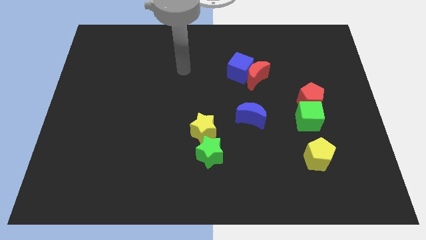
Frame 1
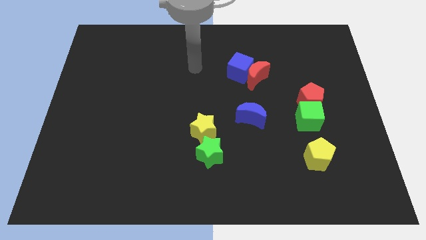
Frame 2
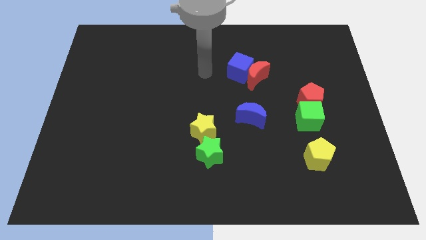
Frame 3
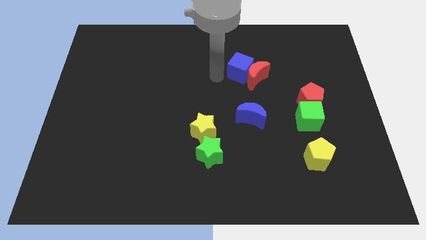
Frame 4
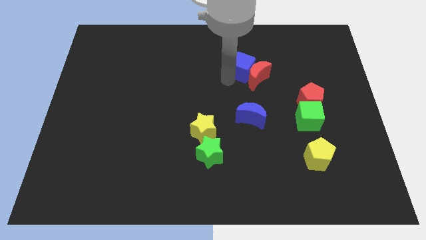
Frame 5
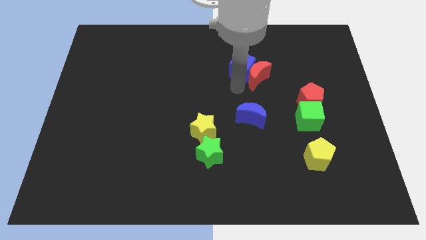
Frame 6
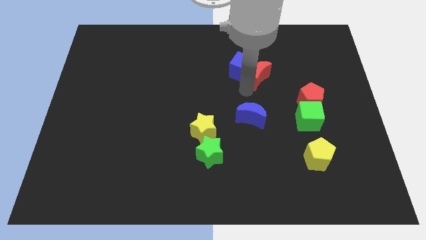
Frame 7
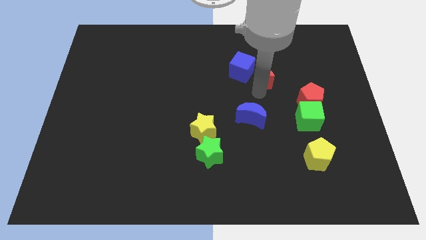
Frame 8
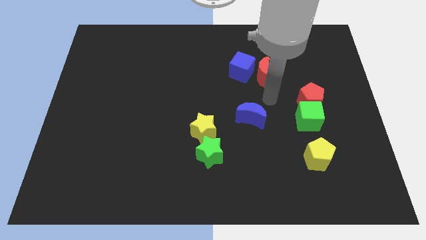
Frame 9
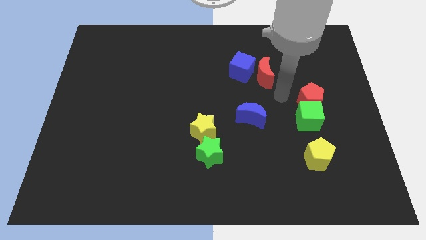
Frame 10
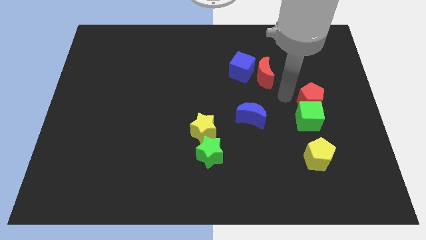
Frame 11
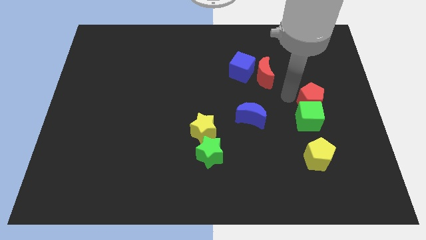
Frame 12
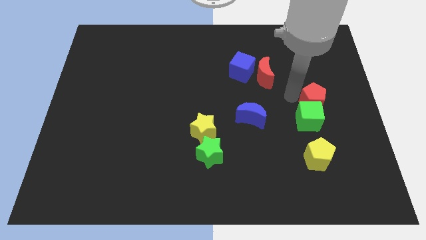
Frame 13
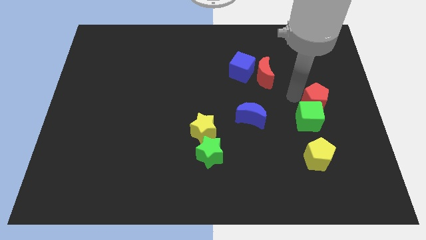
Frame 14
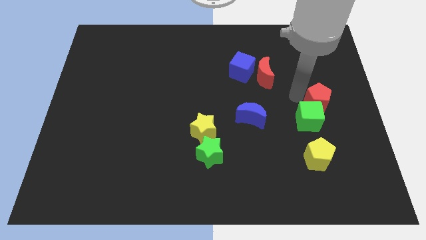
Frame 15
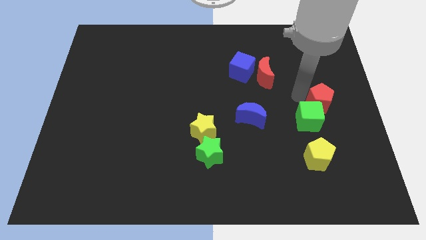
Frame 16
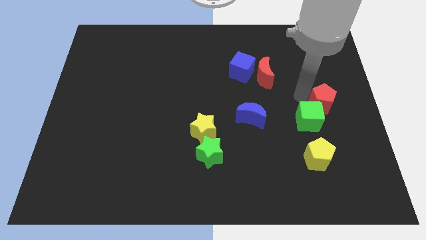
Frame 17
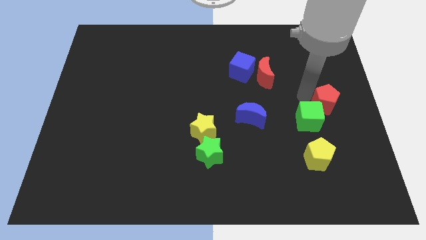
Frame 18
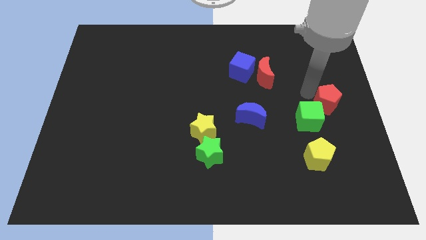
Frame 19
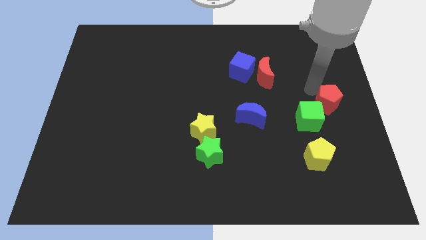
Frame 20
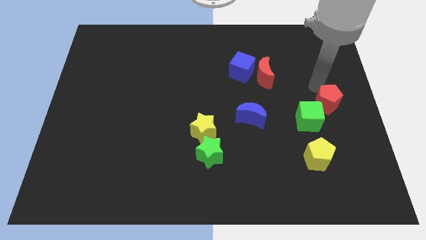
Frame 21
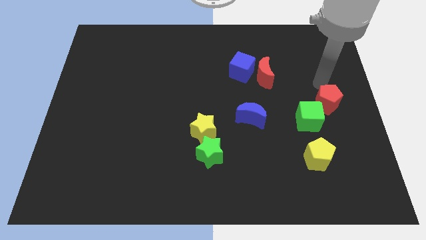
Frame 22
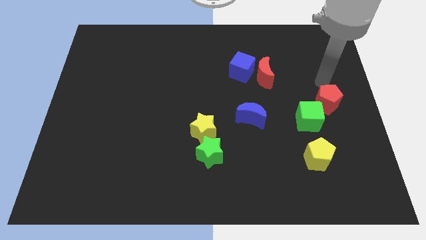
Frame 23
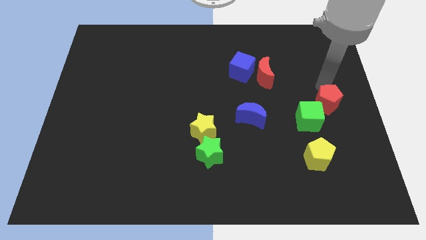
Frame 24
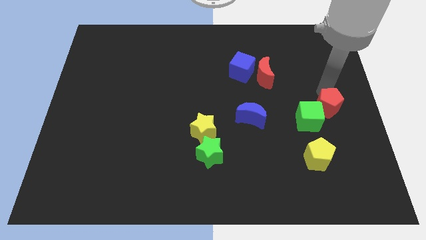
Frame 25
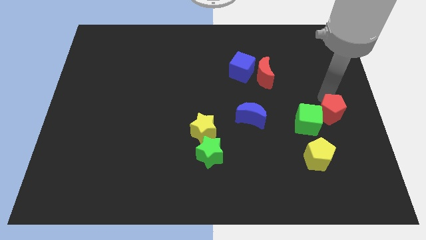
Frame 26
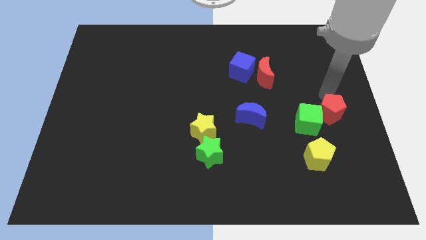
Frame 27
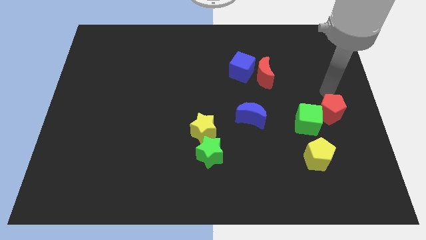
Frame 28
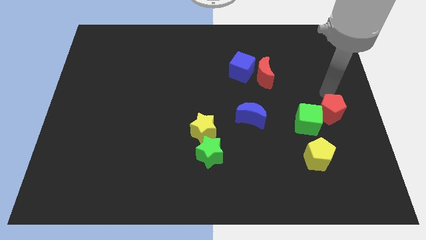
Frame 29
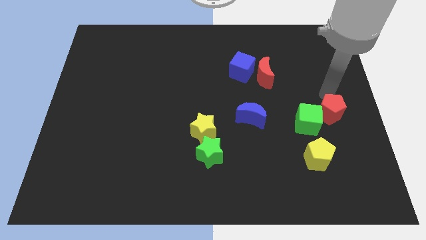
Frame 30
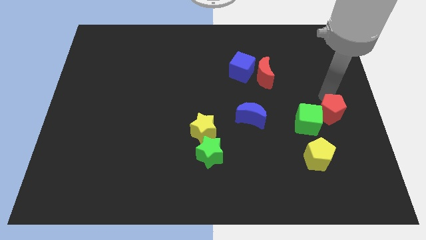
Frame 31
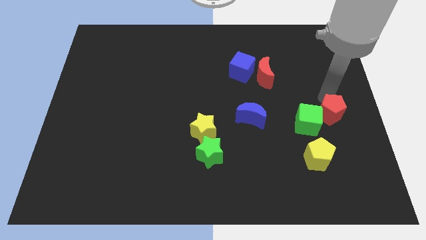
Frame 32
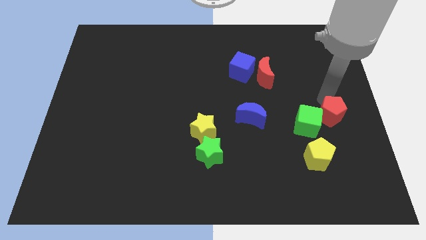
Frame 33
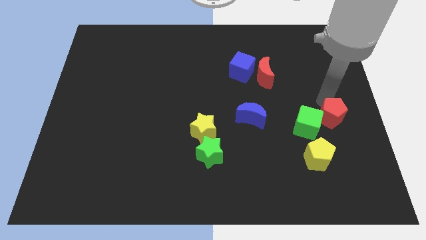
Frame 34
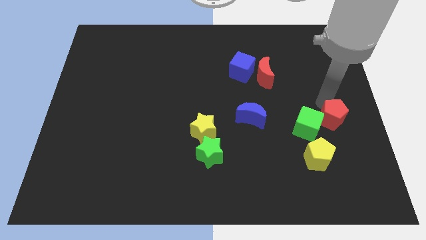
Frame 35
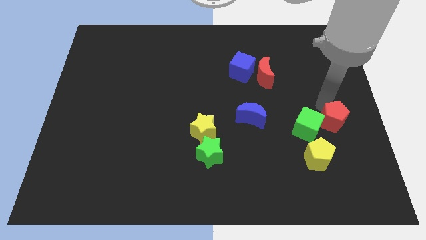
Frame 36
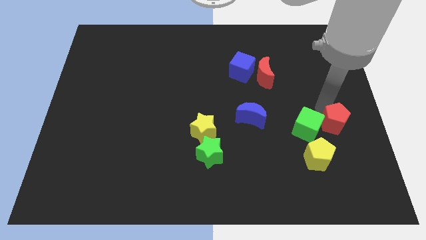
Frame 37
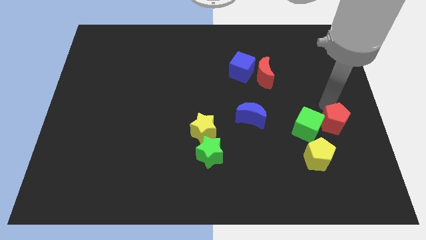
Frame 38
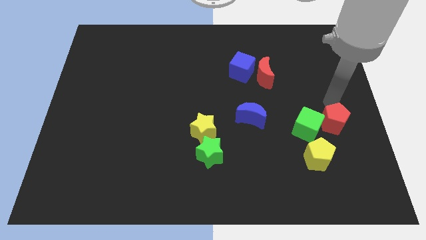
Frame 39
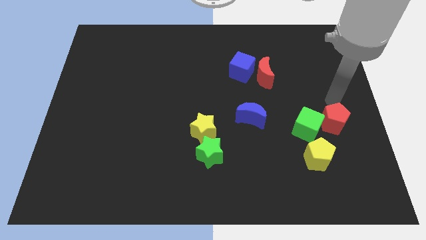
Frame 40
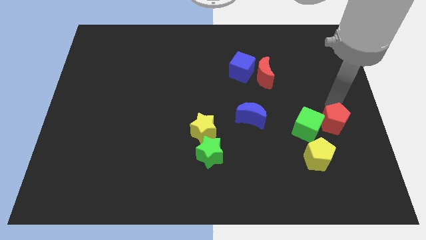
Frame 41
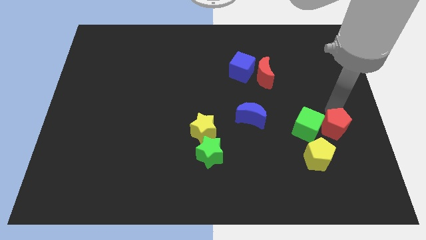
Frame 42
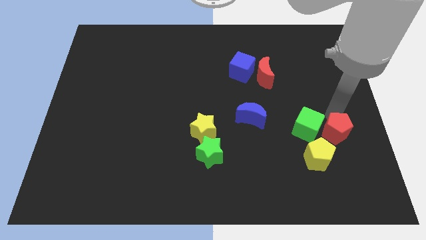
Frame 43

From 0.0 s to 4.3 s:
move the red pentagon slightly down

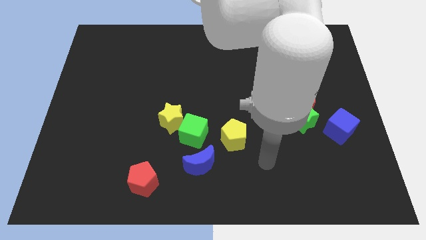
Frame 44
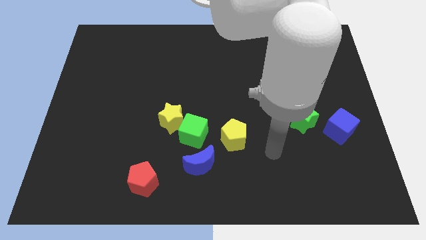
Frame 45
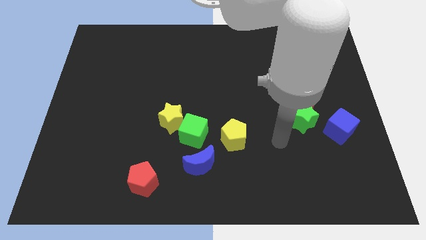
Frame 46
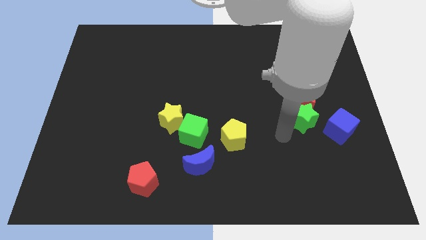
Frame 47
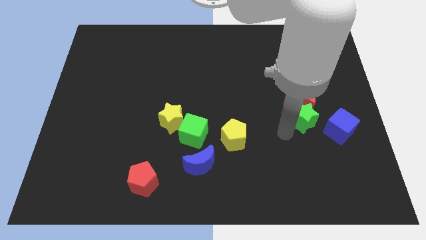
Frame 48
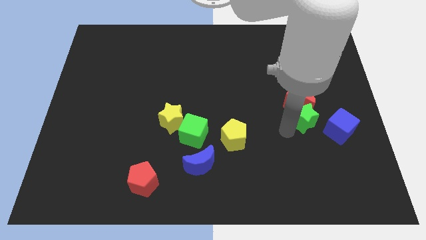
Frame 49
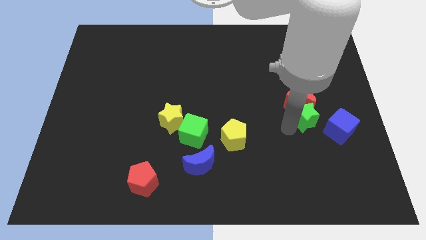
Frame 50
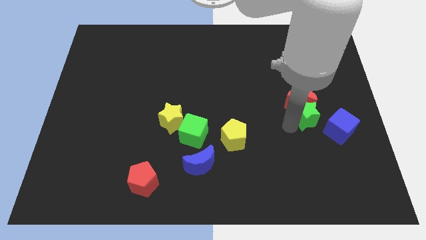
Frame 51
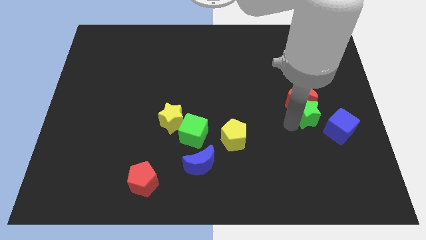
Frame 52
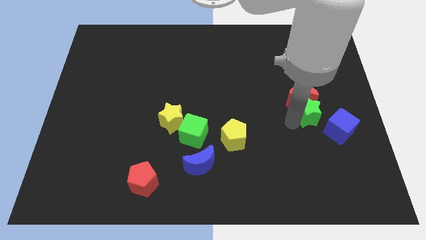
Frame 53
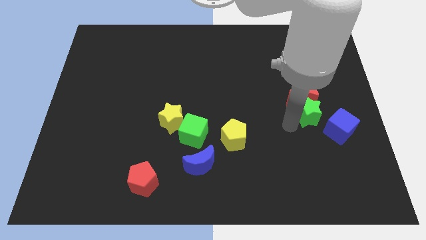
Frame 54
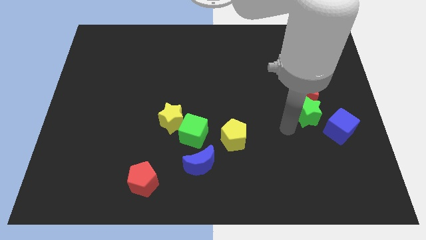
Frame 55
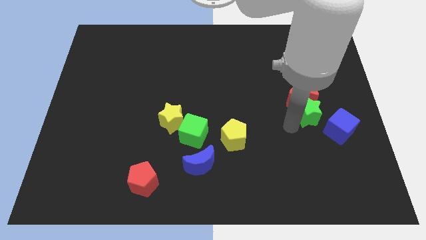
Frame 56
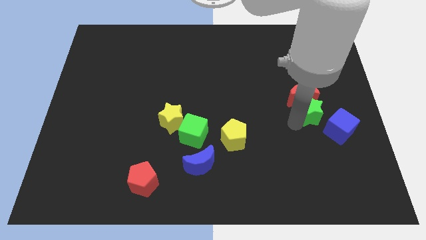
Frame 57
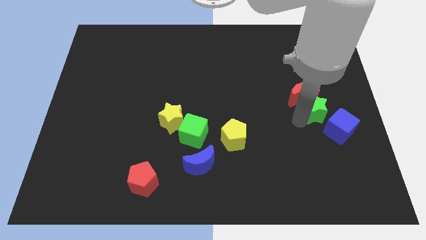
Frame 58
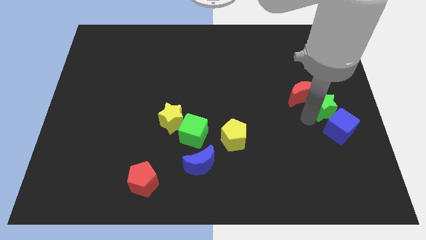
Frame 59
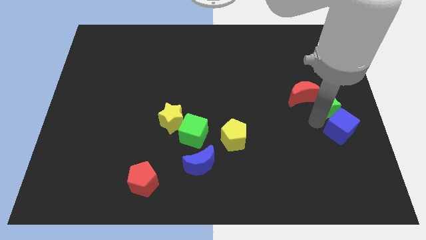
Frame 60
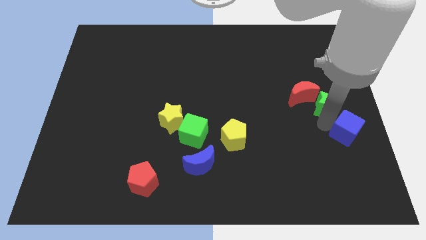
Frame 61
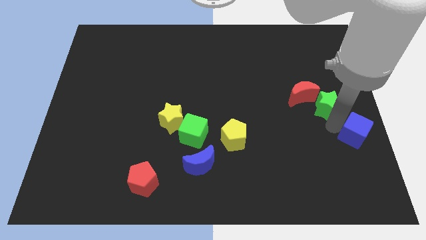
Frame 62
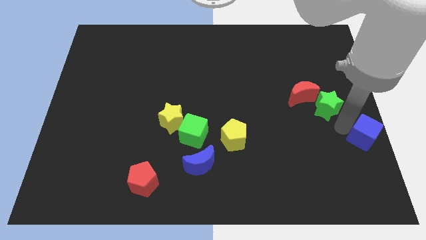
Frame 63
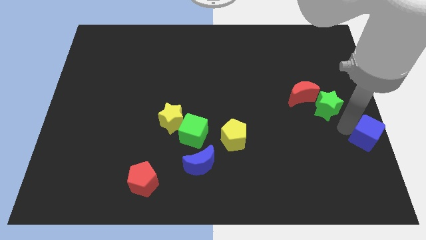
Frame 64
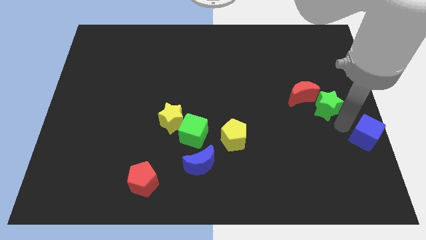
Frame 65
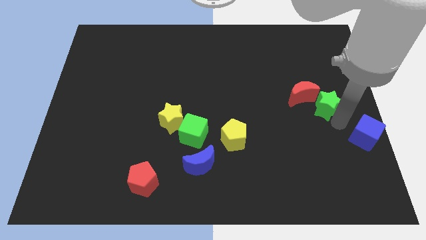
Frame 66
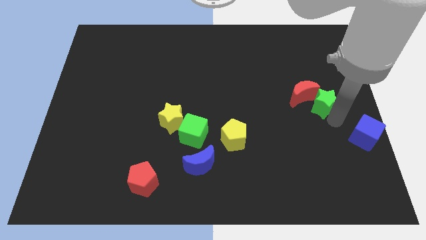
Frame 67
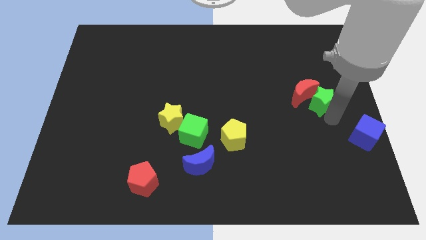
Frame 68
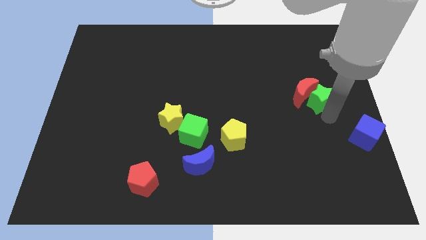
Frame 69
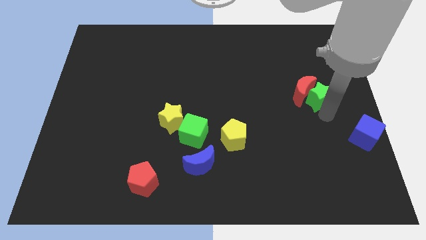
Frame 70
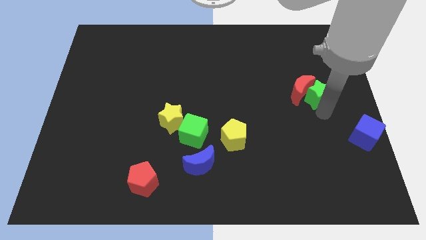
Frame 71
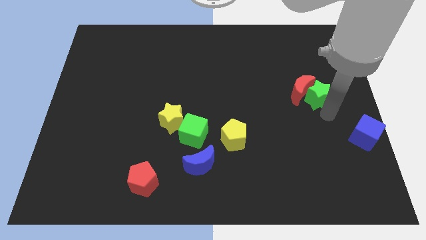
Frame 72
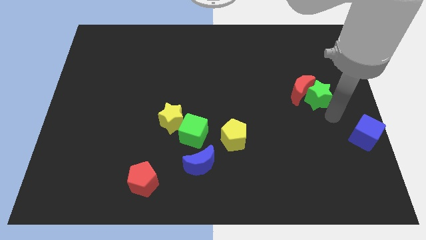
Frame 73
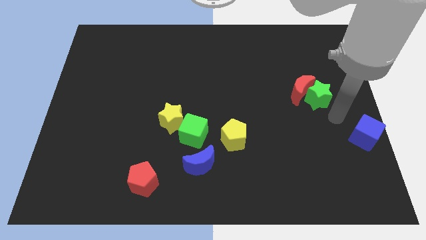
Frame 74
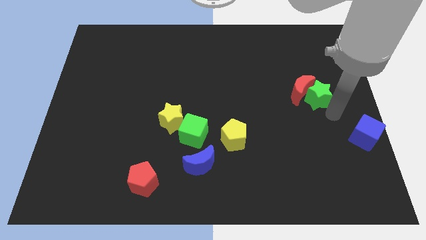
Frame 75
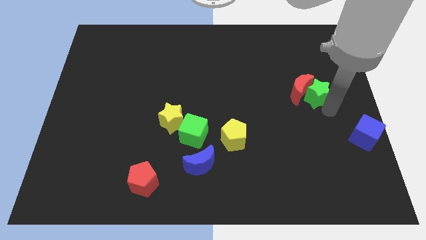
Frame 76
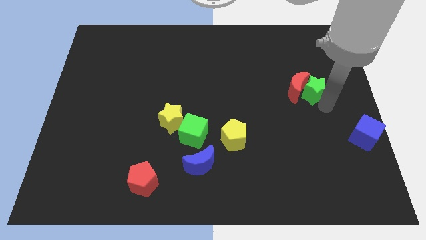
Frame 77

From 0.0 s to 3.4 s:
push the green star somewhat upwards

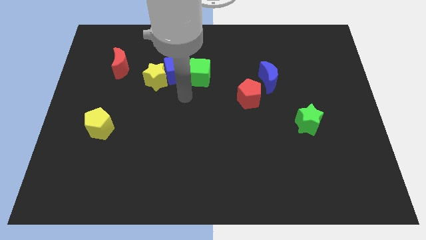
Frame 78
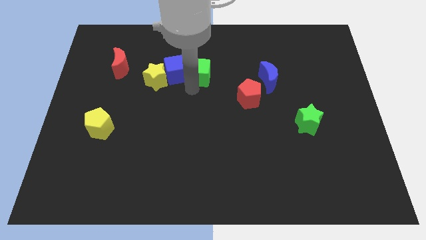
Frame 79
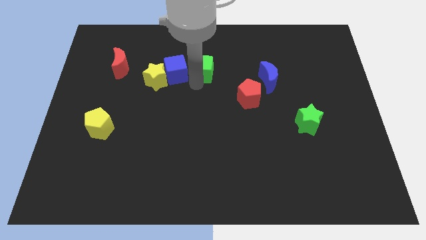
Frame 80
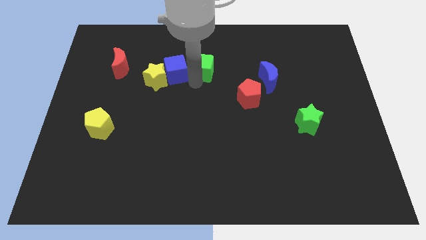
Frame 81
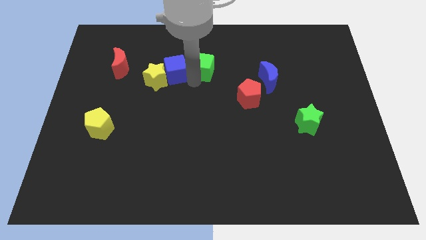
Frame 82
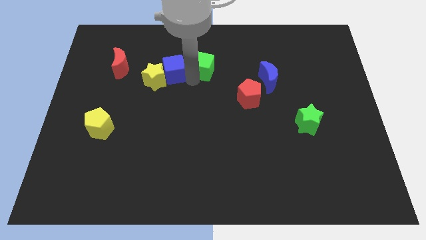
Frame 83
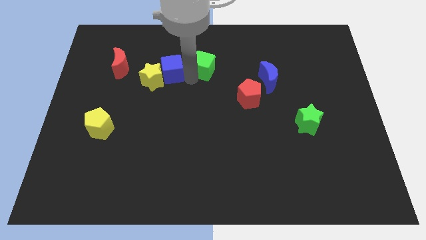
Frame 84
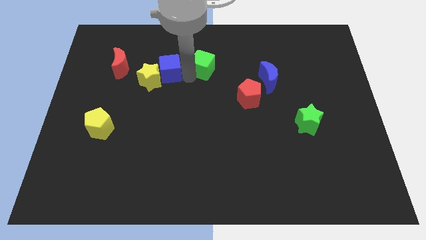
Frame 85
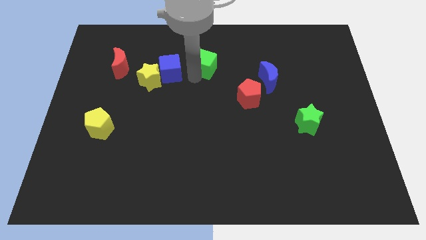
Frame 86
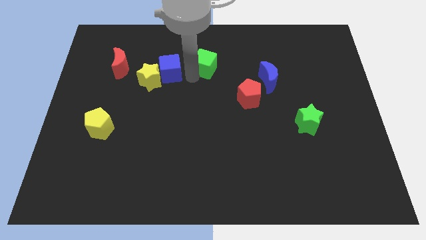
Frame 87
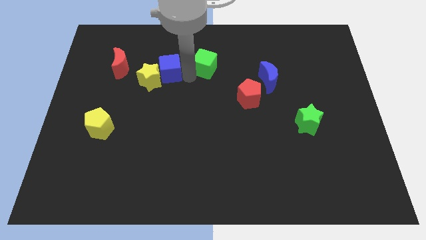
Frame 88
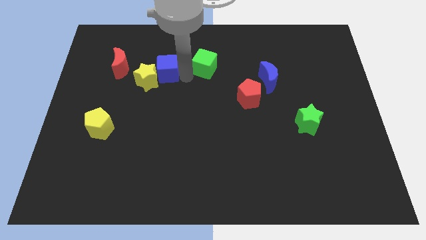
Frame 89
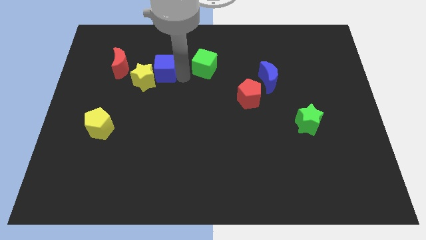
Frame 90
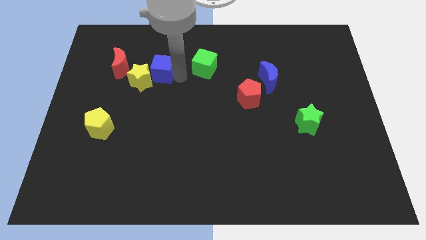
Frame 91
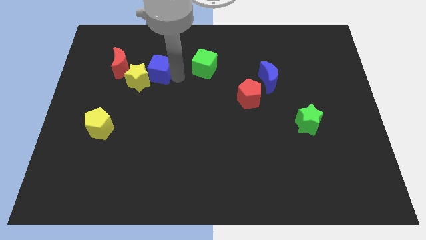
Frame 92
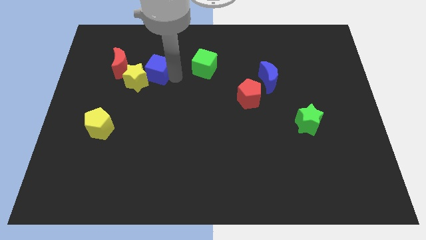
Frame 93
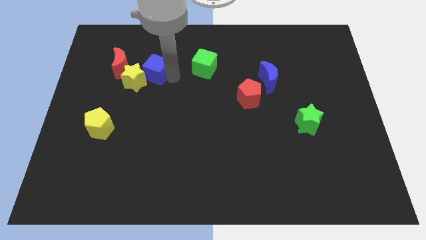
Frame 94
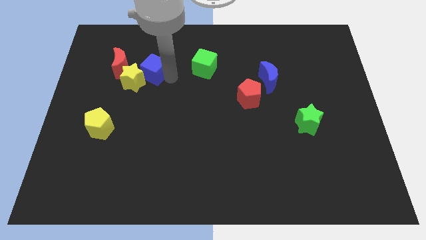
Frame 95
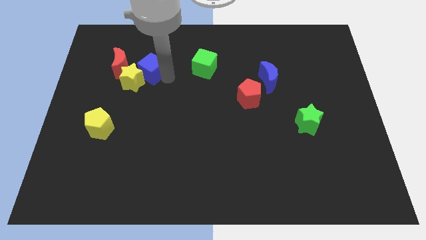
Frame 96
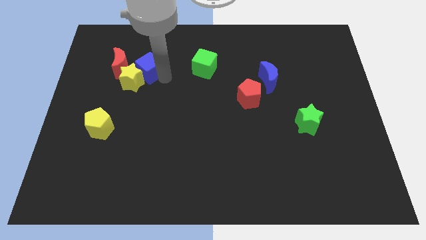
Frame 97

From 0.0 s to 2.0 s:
slightly push the blue cube left
